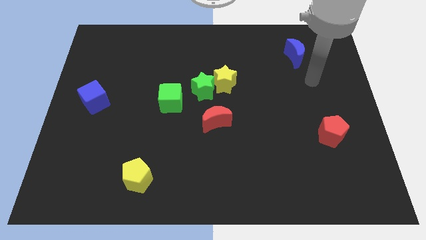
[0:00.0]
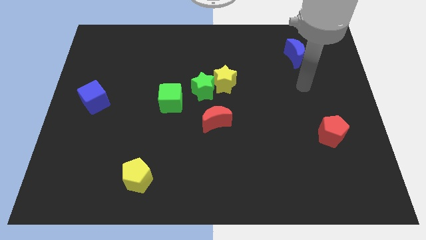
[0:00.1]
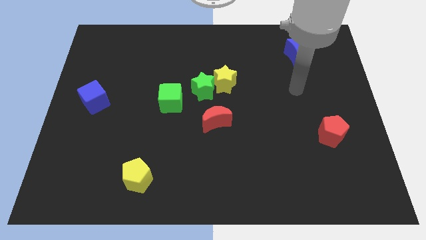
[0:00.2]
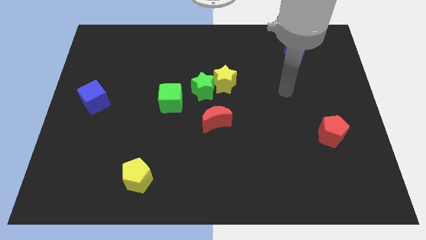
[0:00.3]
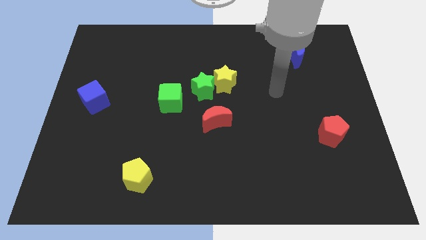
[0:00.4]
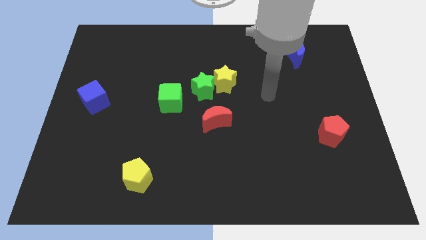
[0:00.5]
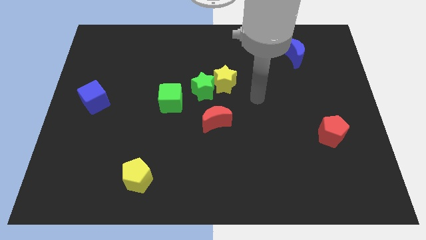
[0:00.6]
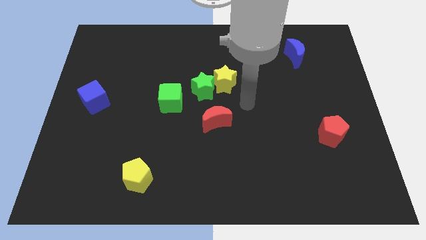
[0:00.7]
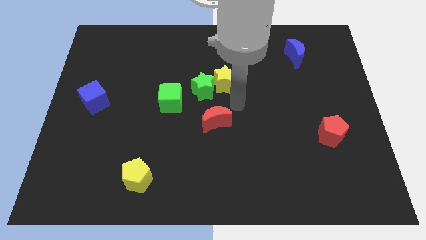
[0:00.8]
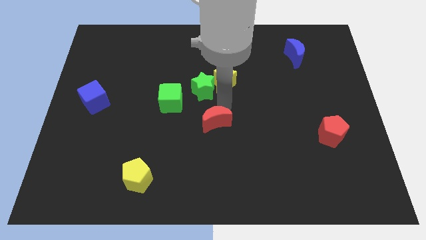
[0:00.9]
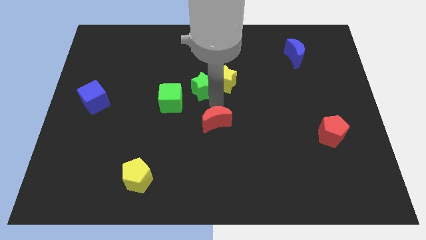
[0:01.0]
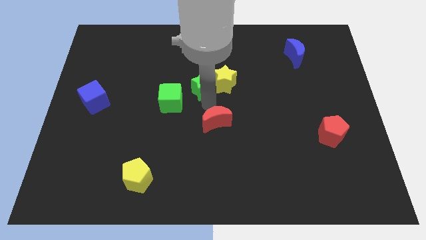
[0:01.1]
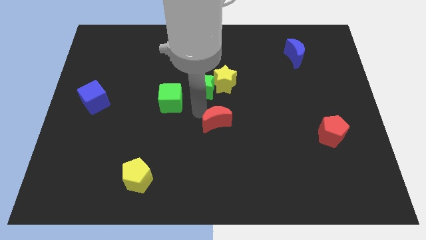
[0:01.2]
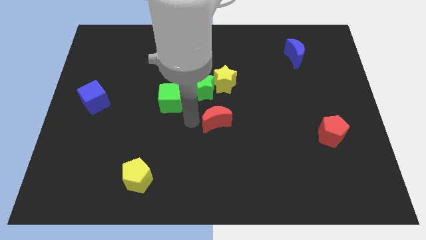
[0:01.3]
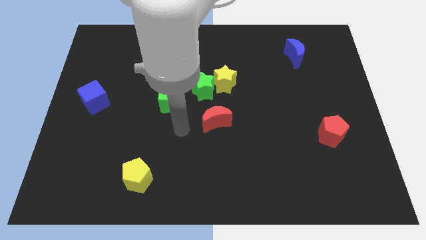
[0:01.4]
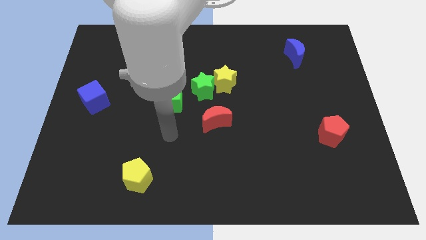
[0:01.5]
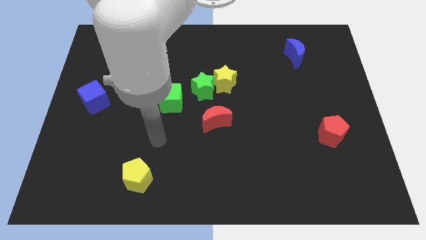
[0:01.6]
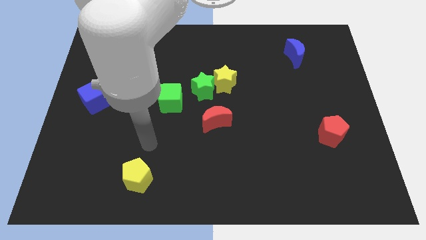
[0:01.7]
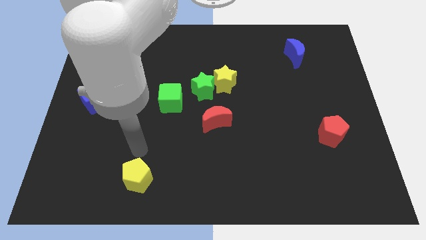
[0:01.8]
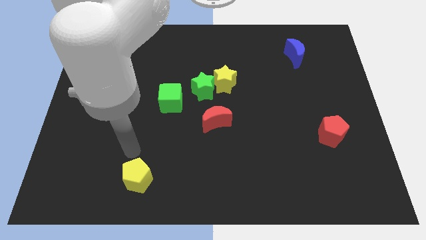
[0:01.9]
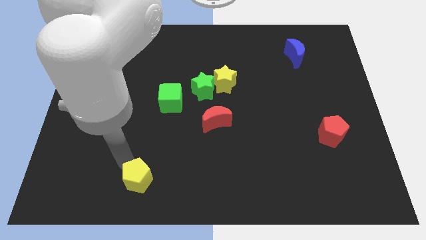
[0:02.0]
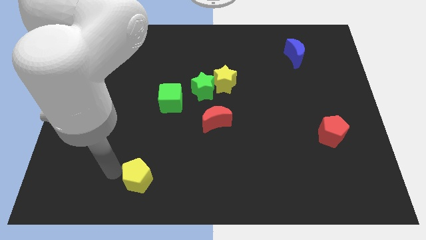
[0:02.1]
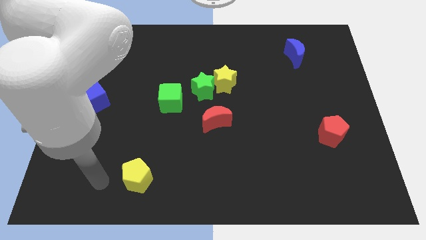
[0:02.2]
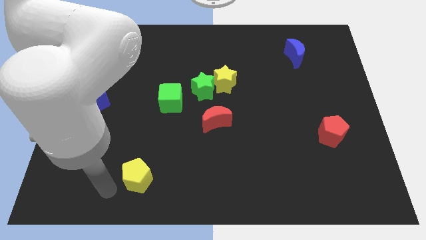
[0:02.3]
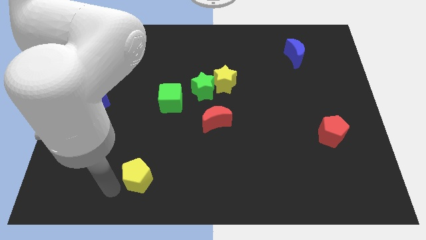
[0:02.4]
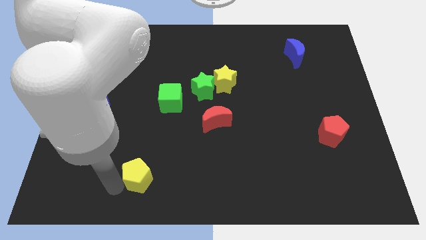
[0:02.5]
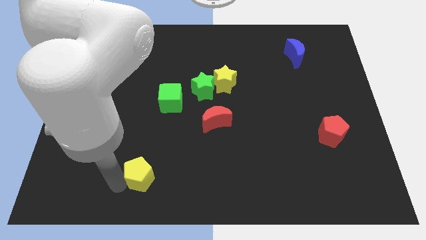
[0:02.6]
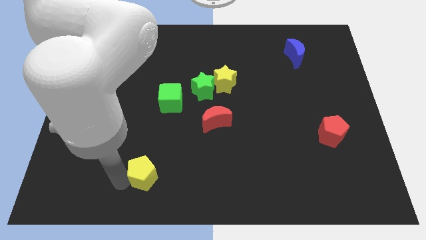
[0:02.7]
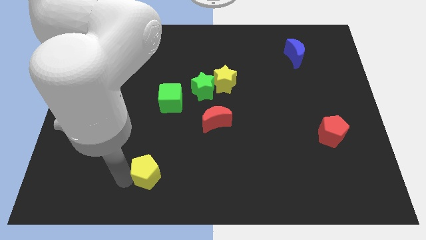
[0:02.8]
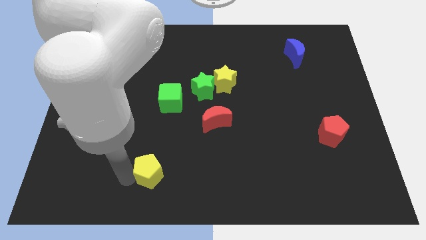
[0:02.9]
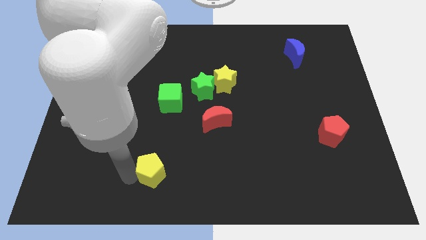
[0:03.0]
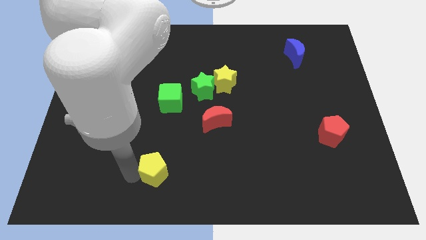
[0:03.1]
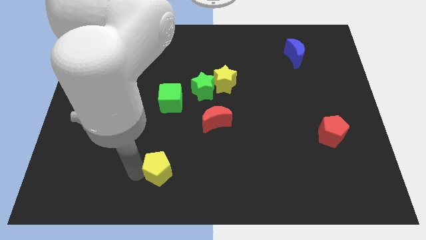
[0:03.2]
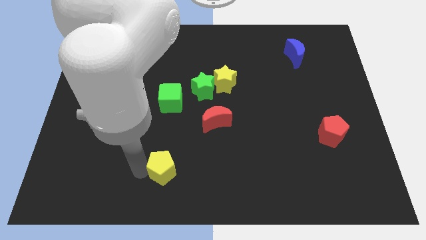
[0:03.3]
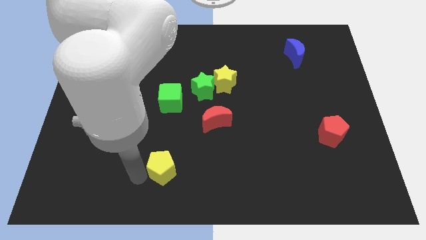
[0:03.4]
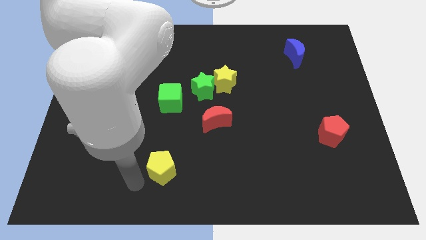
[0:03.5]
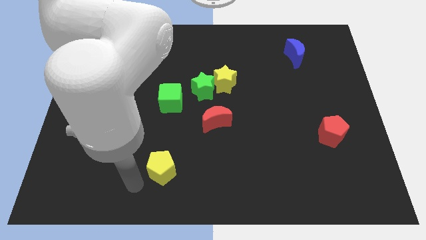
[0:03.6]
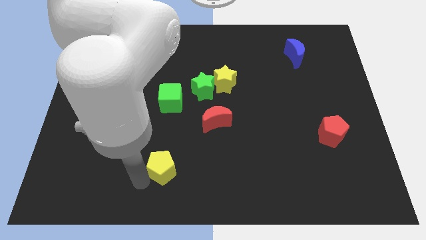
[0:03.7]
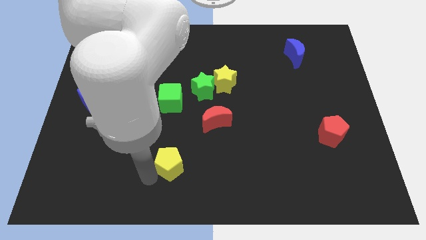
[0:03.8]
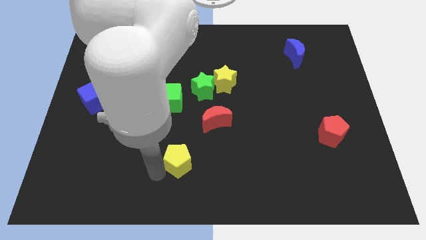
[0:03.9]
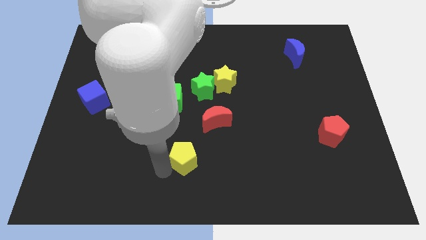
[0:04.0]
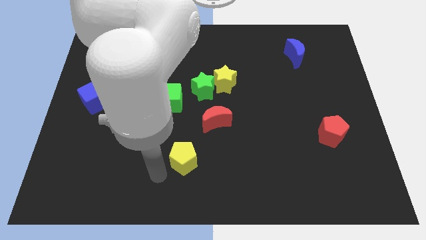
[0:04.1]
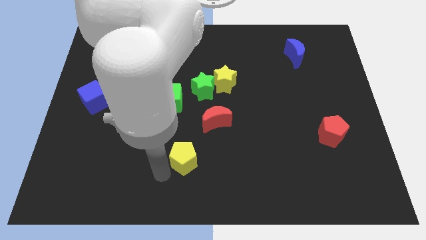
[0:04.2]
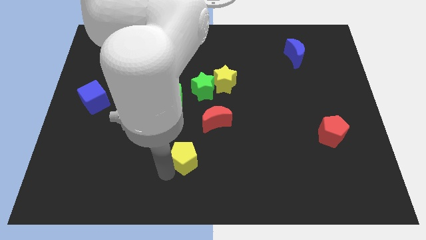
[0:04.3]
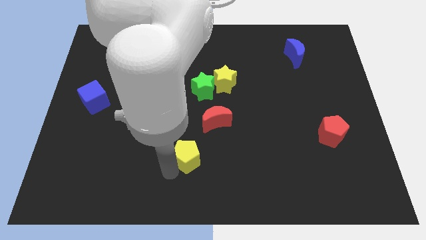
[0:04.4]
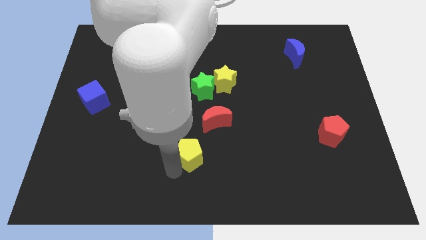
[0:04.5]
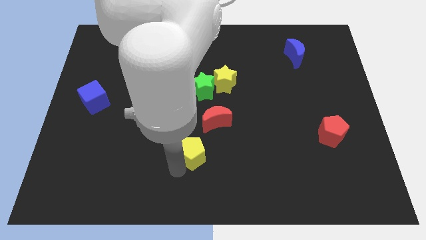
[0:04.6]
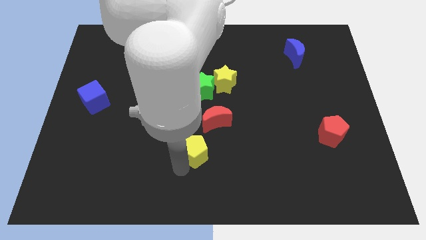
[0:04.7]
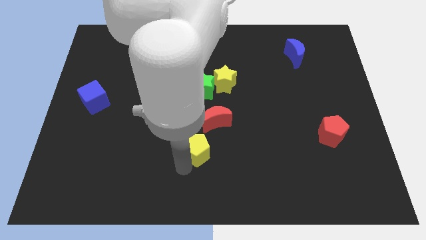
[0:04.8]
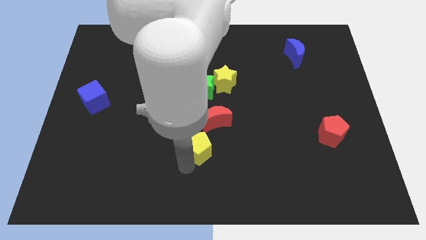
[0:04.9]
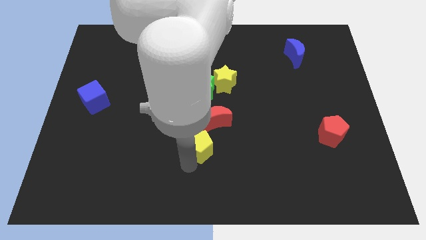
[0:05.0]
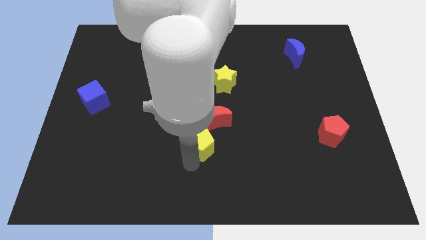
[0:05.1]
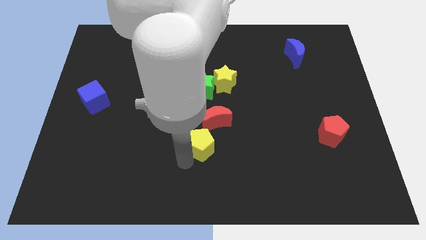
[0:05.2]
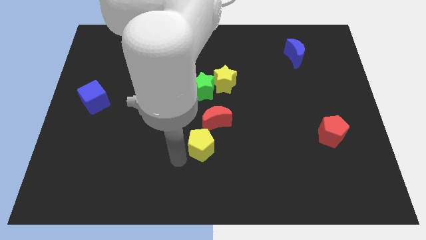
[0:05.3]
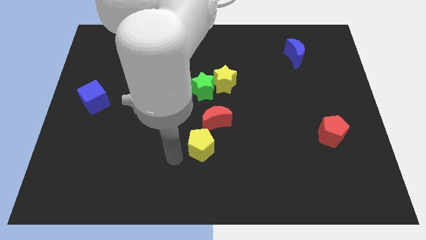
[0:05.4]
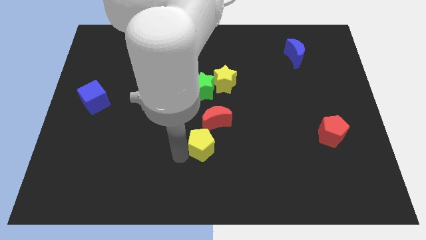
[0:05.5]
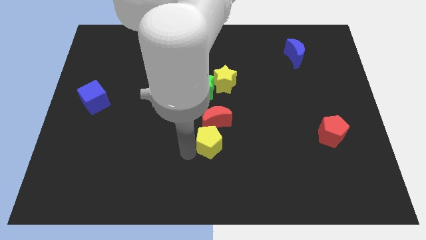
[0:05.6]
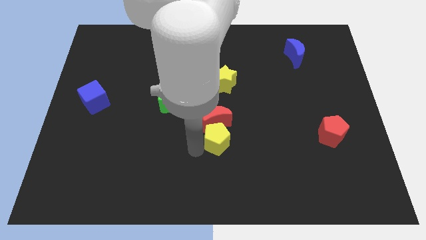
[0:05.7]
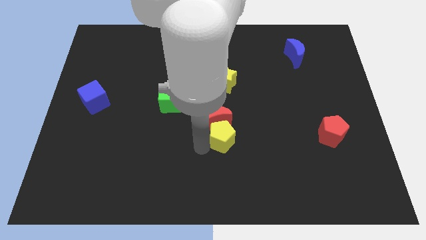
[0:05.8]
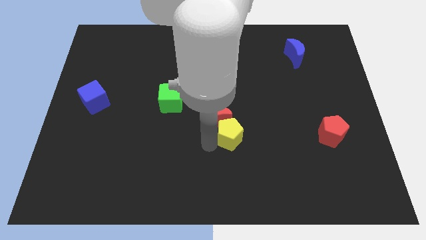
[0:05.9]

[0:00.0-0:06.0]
move the yellow pentagon just right of the red moon
